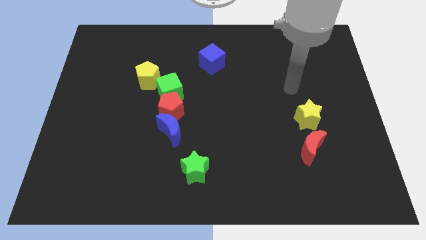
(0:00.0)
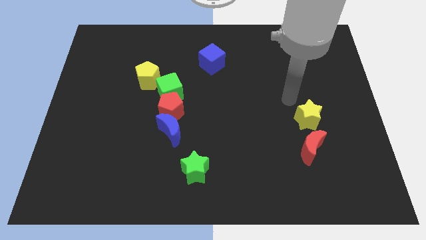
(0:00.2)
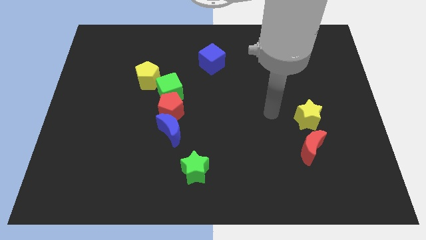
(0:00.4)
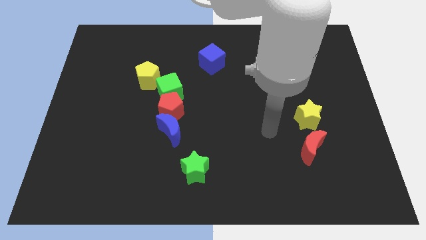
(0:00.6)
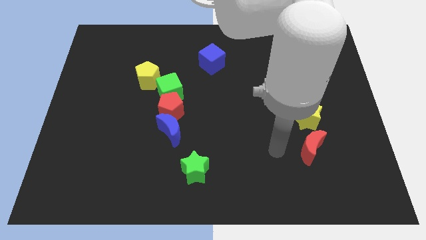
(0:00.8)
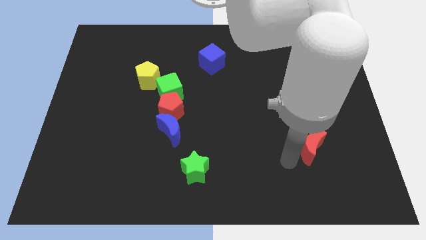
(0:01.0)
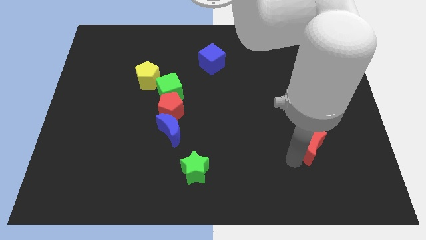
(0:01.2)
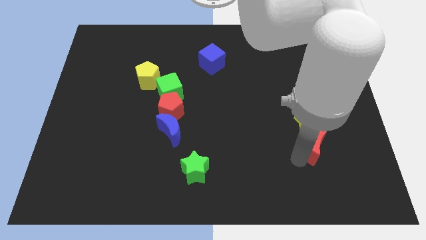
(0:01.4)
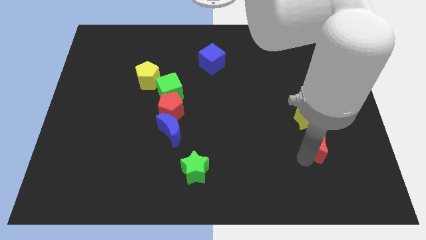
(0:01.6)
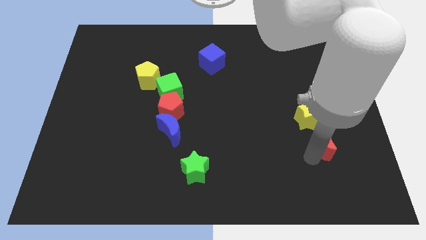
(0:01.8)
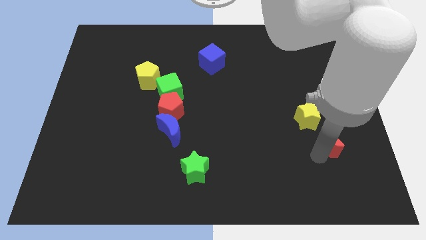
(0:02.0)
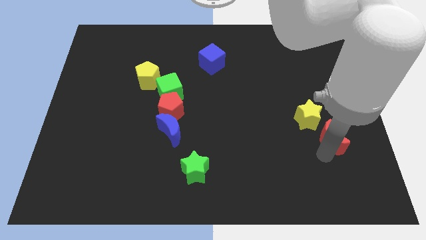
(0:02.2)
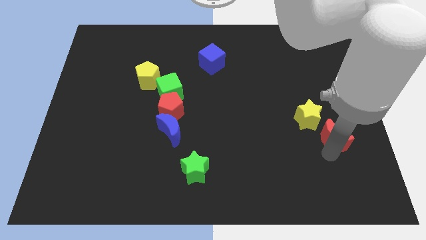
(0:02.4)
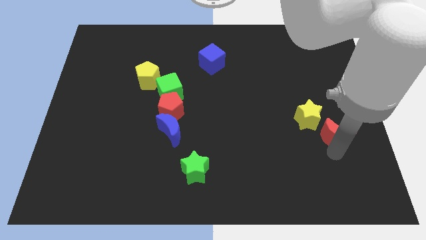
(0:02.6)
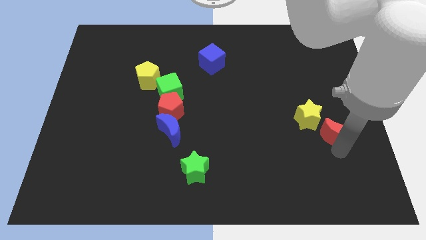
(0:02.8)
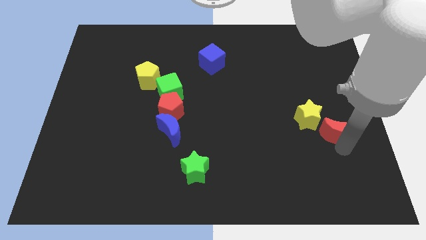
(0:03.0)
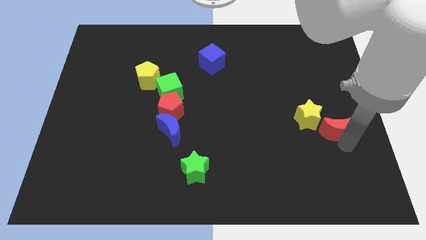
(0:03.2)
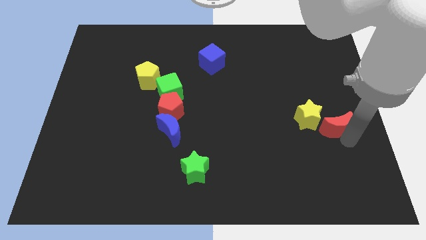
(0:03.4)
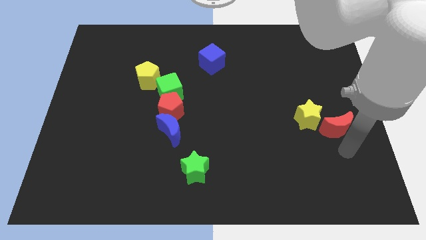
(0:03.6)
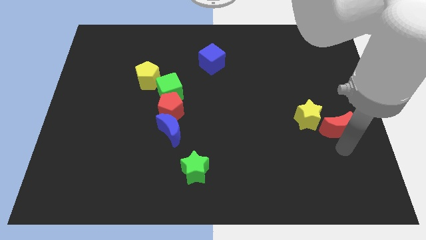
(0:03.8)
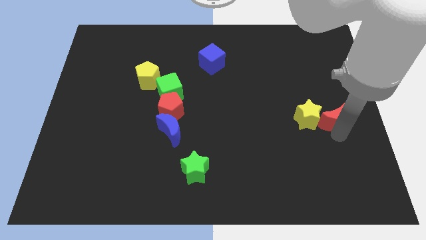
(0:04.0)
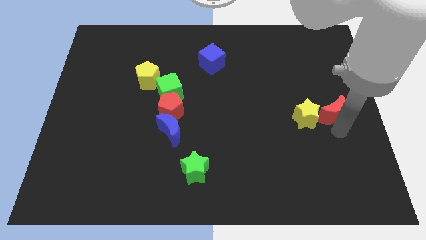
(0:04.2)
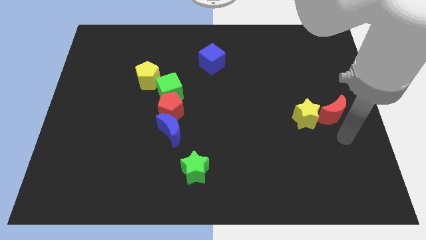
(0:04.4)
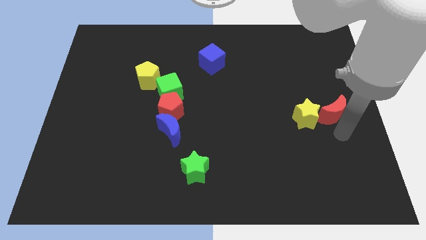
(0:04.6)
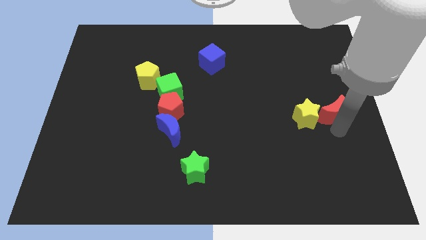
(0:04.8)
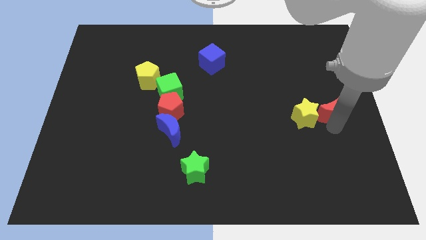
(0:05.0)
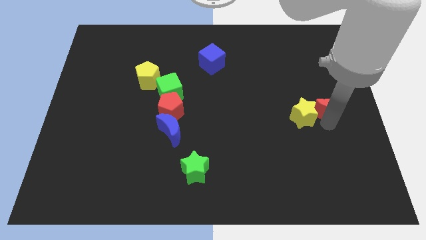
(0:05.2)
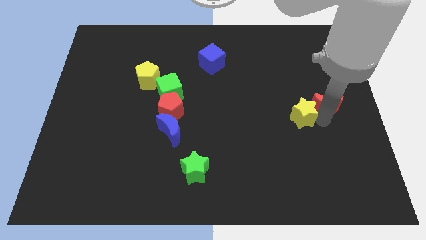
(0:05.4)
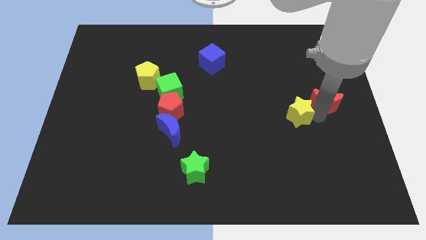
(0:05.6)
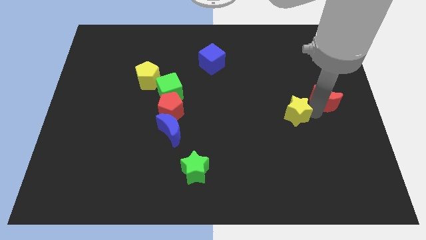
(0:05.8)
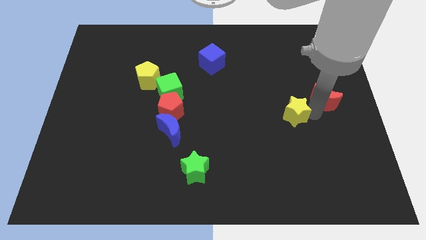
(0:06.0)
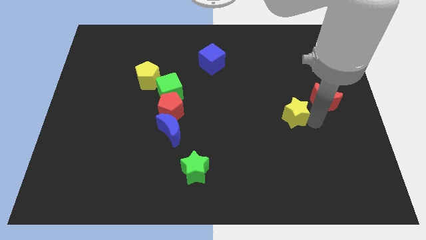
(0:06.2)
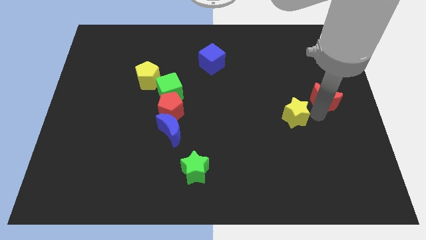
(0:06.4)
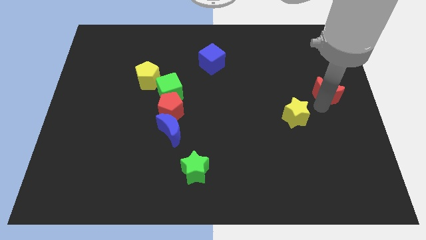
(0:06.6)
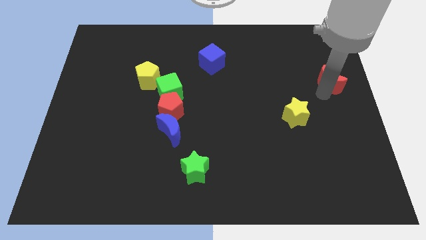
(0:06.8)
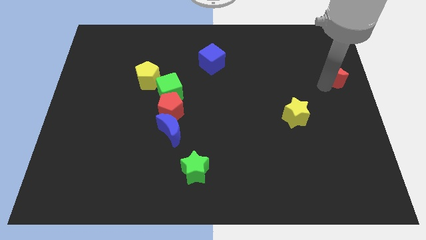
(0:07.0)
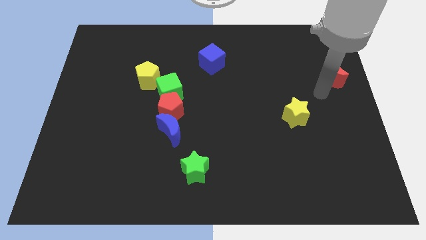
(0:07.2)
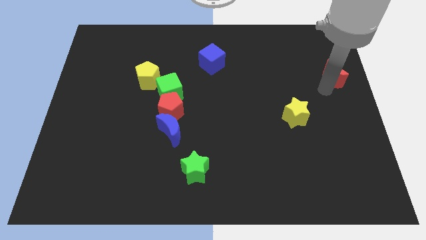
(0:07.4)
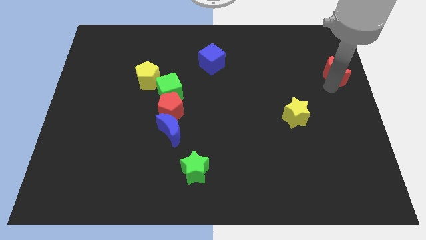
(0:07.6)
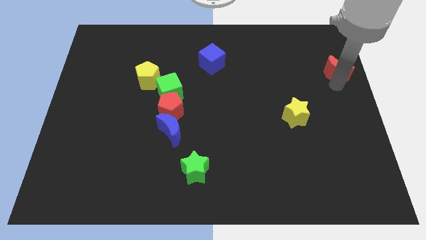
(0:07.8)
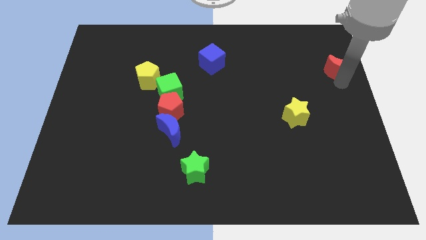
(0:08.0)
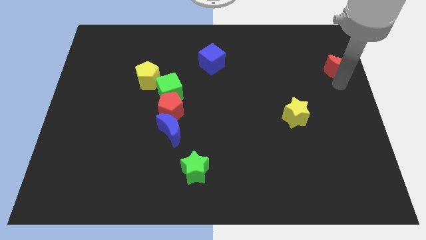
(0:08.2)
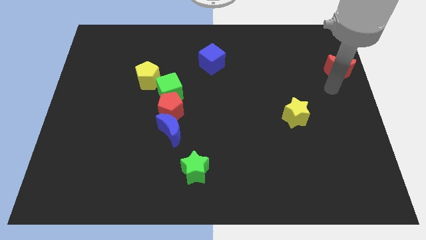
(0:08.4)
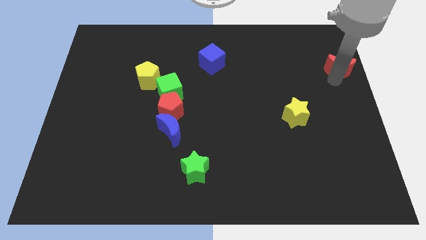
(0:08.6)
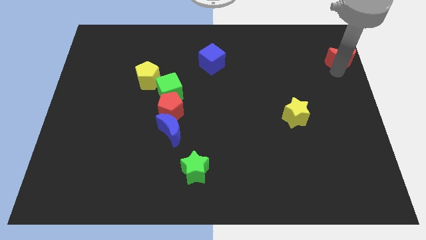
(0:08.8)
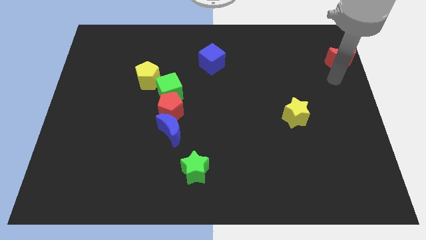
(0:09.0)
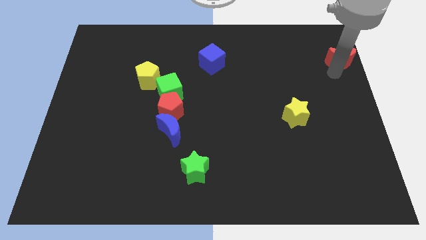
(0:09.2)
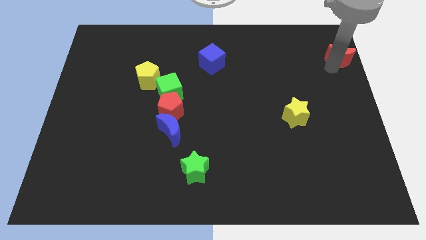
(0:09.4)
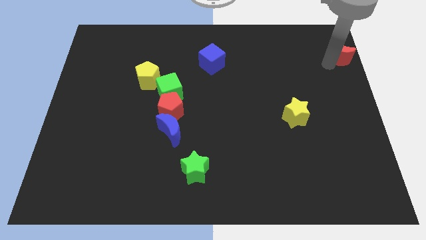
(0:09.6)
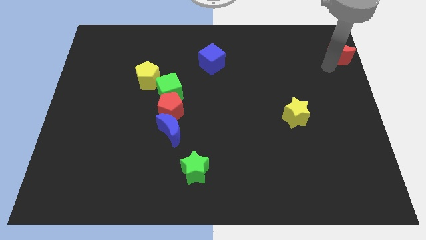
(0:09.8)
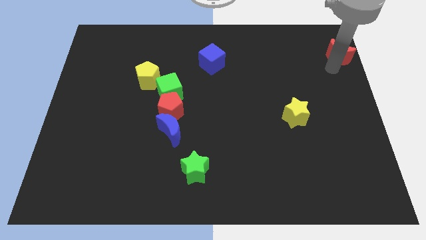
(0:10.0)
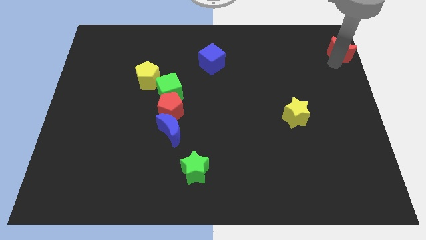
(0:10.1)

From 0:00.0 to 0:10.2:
move the red moon to the top right of the board

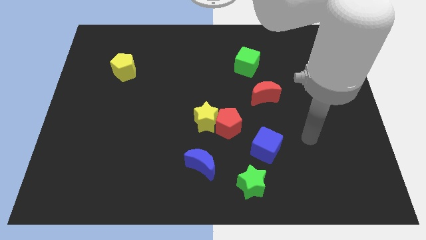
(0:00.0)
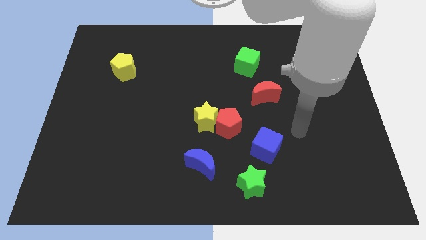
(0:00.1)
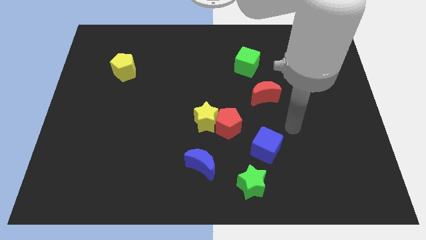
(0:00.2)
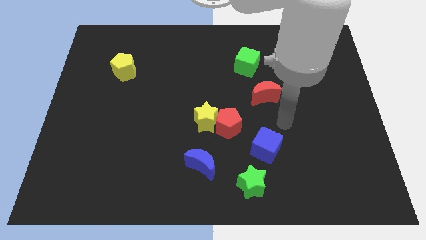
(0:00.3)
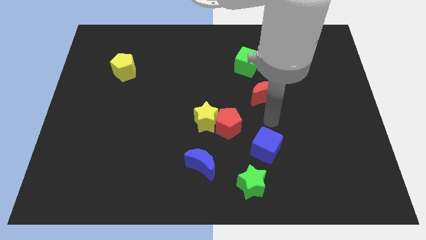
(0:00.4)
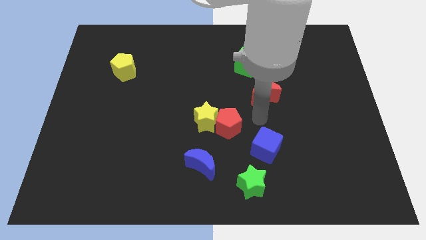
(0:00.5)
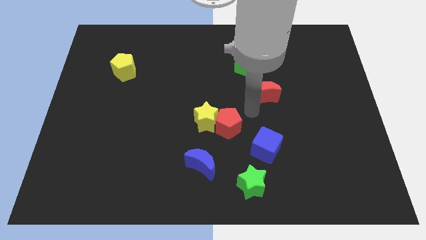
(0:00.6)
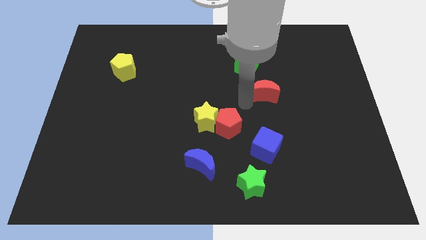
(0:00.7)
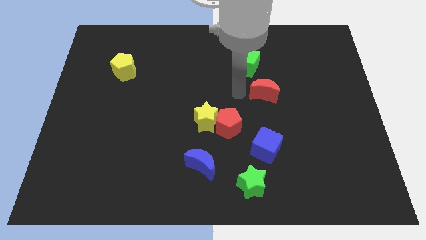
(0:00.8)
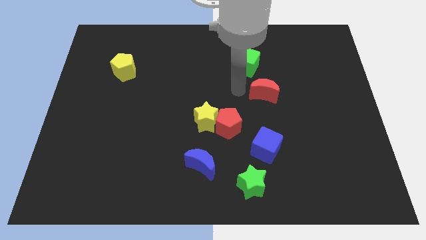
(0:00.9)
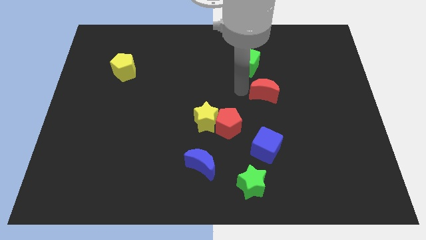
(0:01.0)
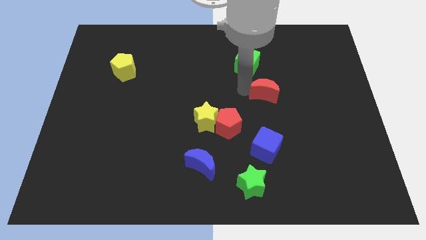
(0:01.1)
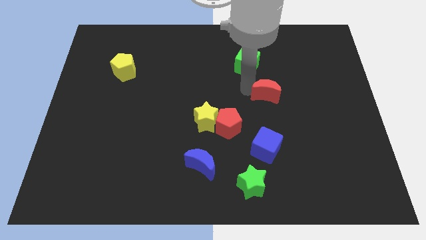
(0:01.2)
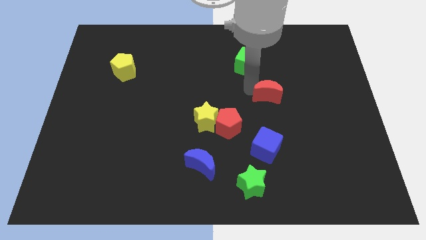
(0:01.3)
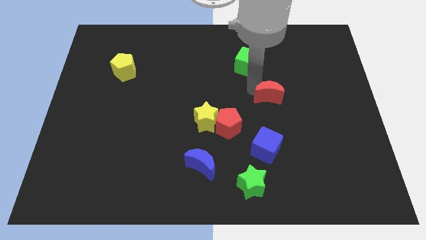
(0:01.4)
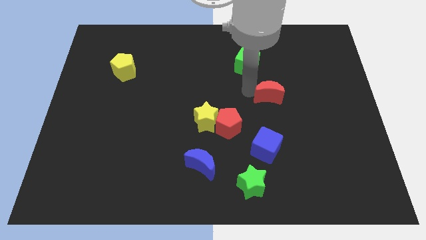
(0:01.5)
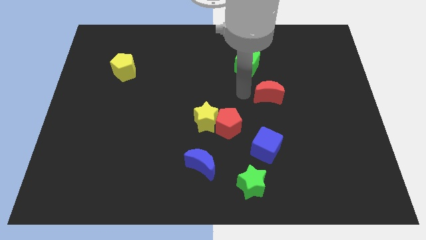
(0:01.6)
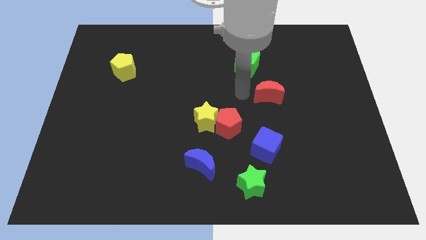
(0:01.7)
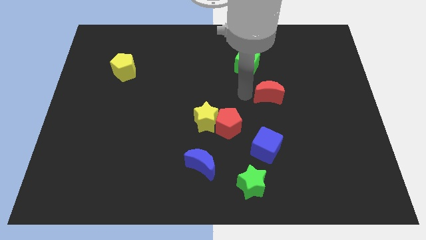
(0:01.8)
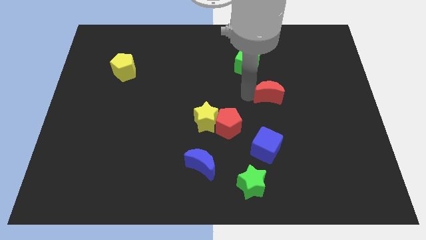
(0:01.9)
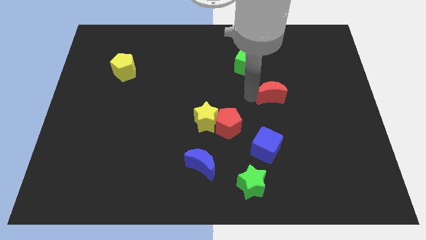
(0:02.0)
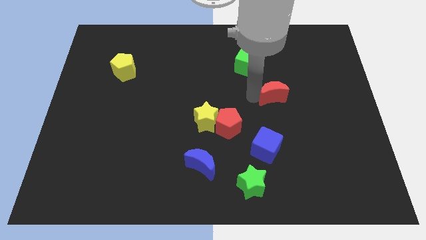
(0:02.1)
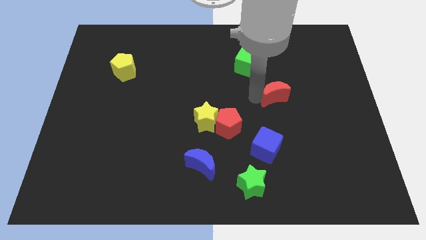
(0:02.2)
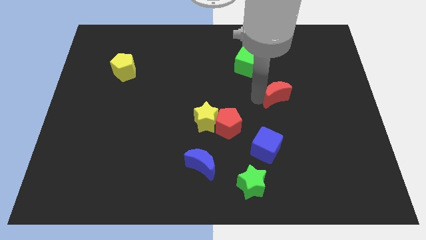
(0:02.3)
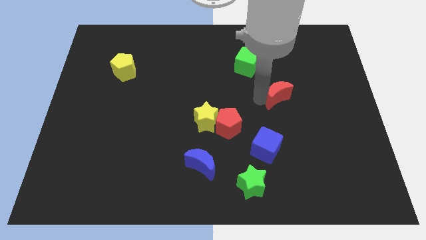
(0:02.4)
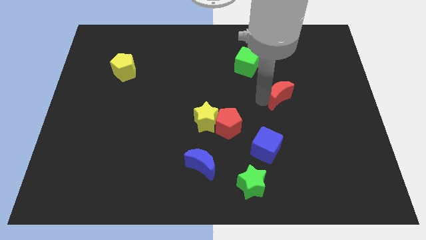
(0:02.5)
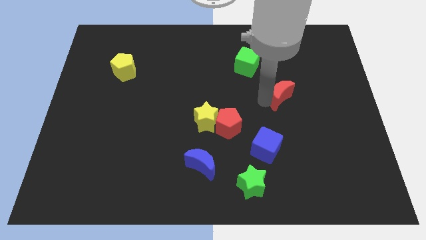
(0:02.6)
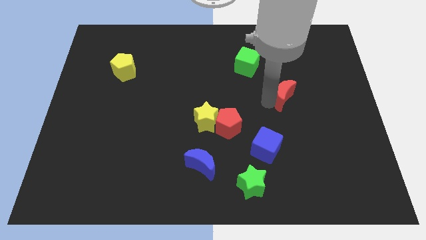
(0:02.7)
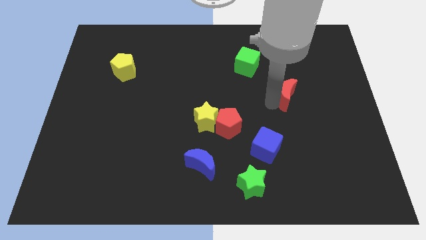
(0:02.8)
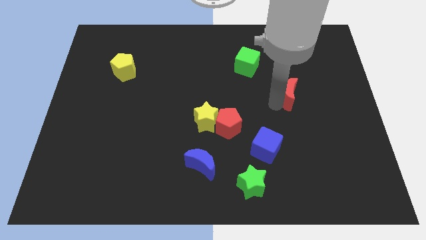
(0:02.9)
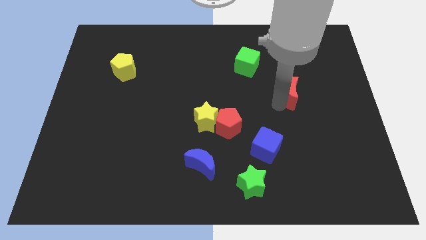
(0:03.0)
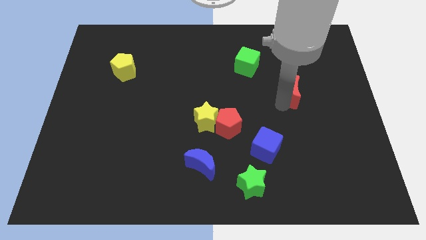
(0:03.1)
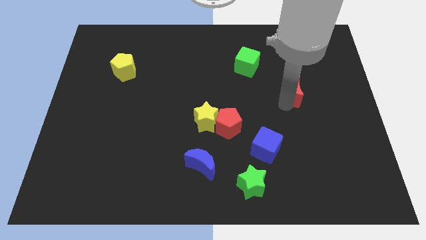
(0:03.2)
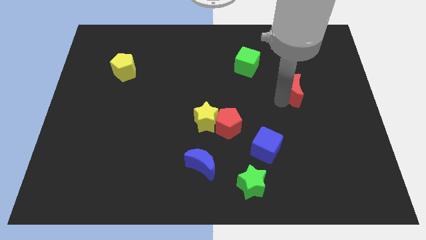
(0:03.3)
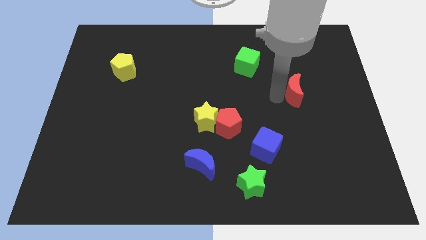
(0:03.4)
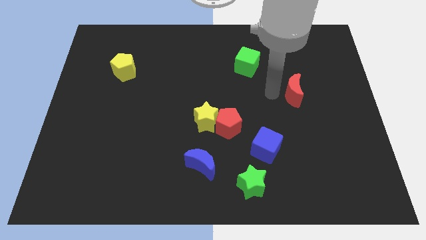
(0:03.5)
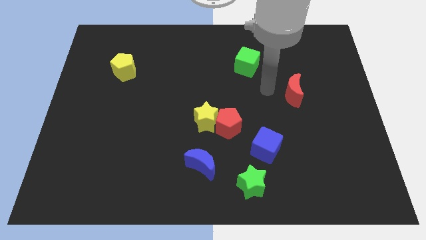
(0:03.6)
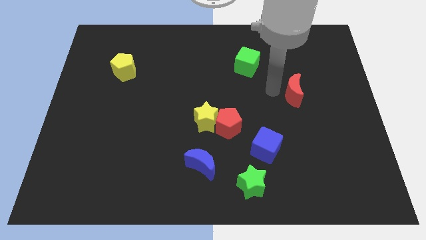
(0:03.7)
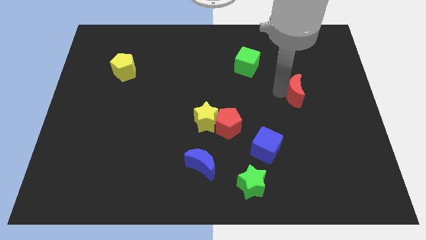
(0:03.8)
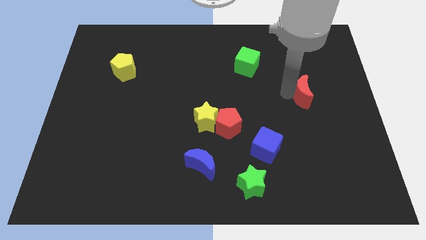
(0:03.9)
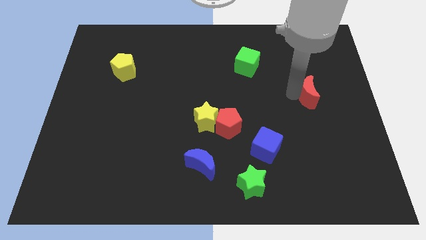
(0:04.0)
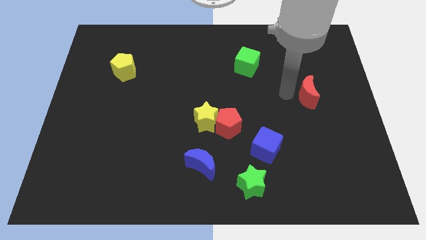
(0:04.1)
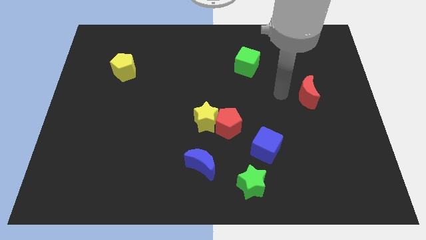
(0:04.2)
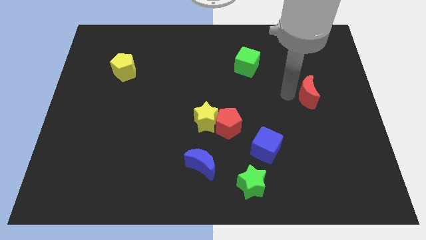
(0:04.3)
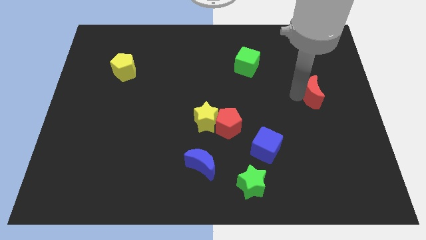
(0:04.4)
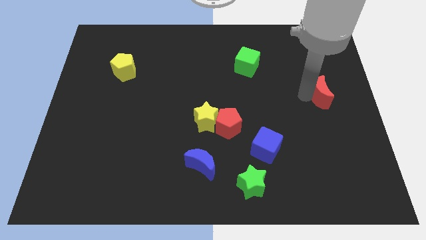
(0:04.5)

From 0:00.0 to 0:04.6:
move the red moon to the right side
